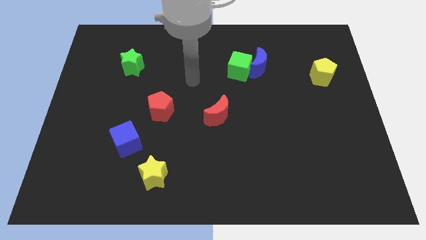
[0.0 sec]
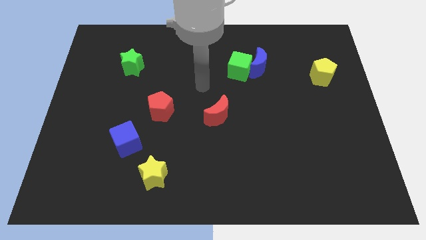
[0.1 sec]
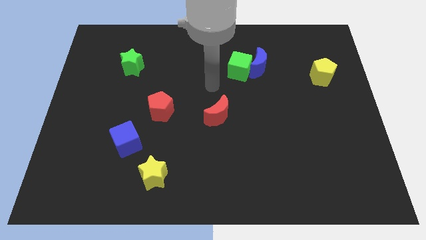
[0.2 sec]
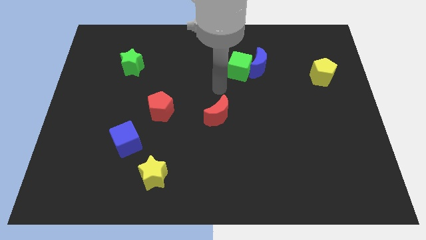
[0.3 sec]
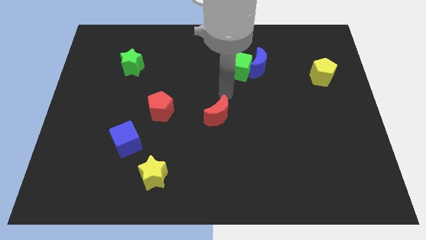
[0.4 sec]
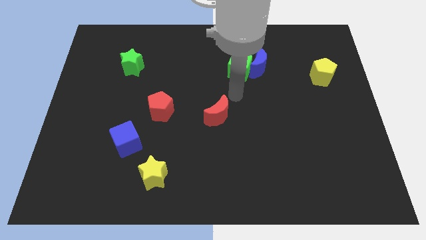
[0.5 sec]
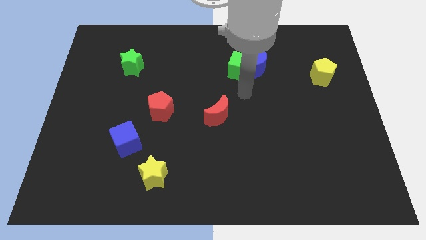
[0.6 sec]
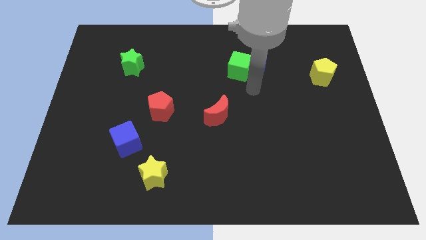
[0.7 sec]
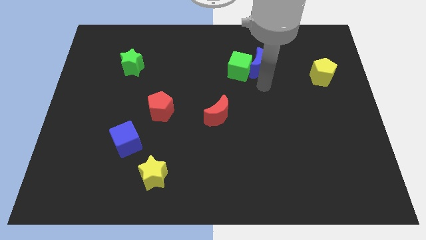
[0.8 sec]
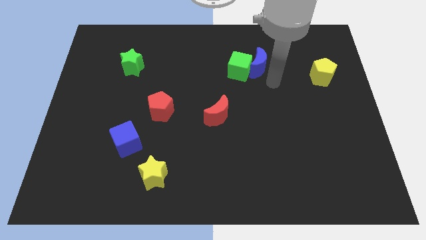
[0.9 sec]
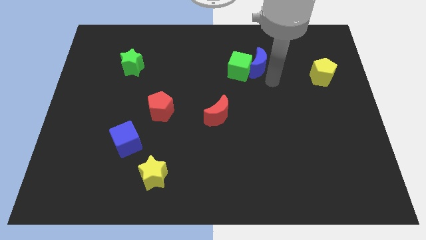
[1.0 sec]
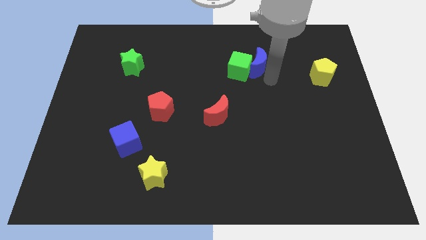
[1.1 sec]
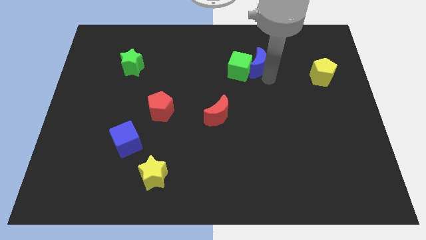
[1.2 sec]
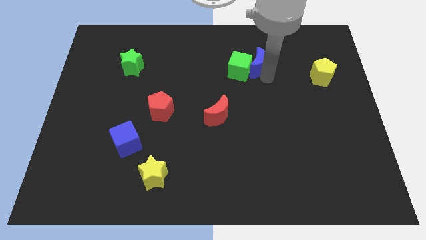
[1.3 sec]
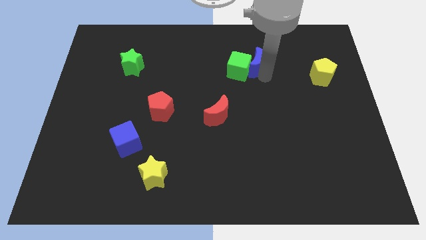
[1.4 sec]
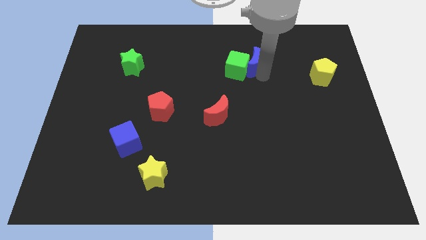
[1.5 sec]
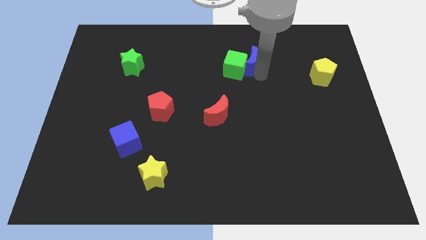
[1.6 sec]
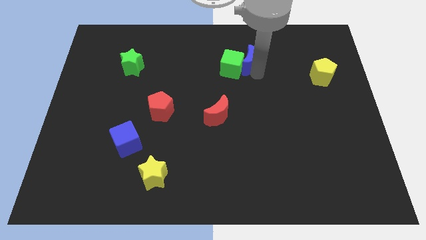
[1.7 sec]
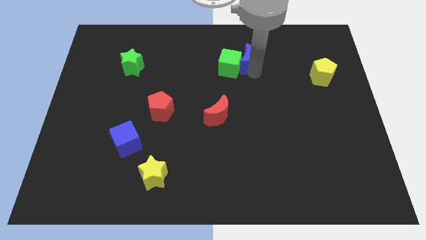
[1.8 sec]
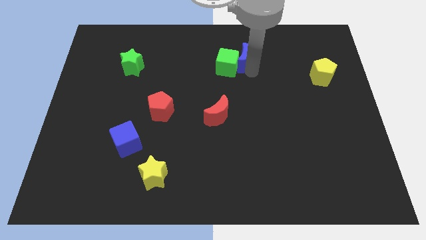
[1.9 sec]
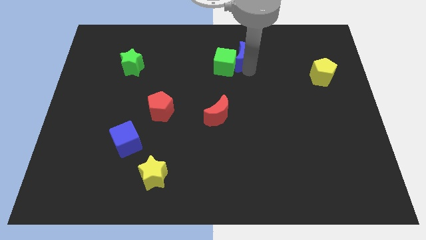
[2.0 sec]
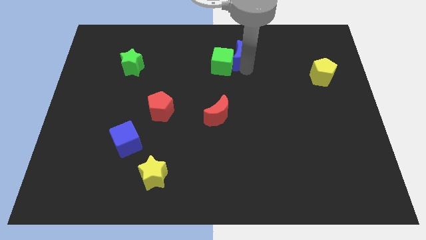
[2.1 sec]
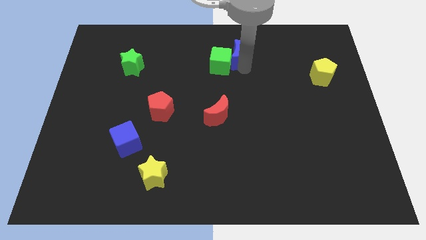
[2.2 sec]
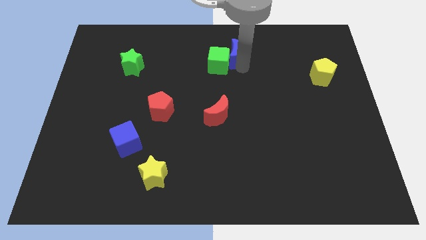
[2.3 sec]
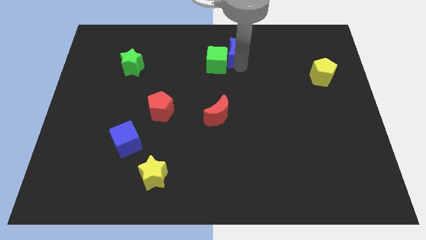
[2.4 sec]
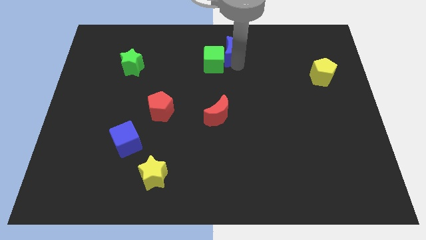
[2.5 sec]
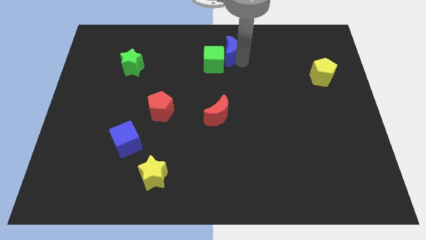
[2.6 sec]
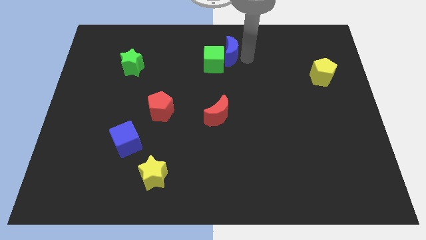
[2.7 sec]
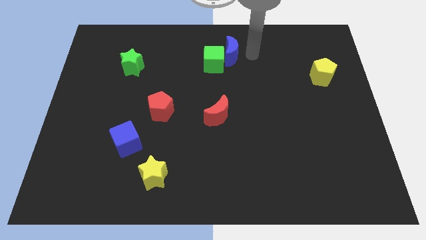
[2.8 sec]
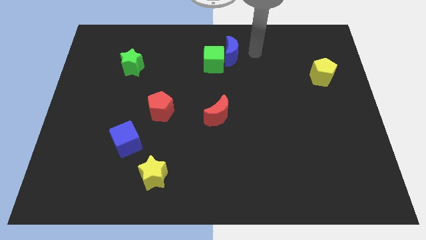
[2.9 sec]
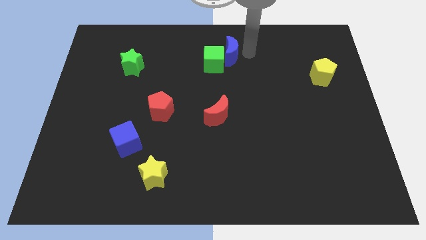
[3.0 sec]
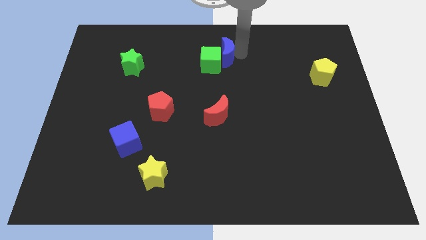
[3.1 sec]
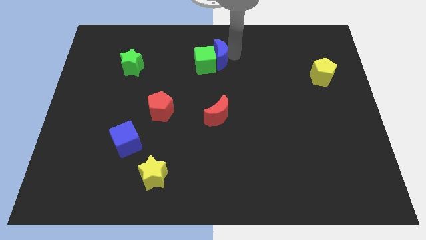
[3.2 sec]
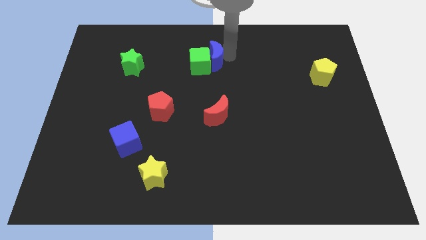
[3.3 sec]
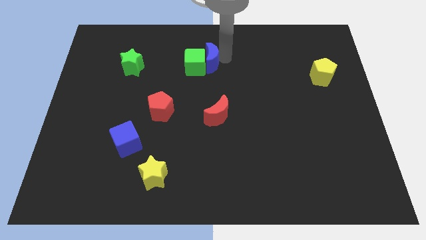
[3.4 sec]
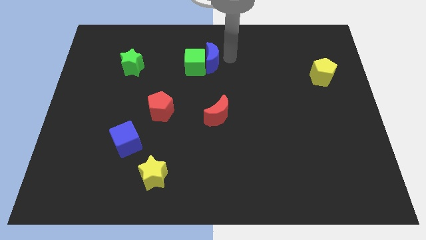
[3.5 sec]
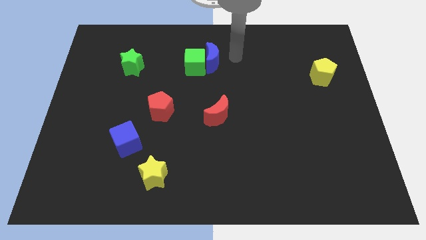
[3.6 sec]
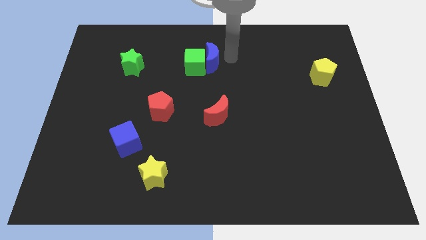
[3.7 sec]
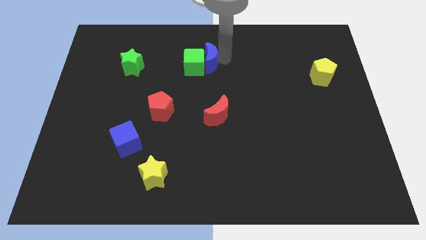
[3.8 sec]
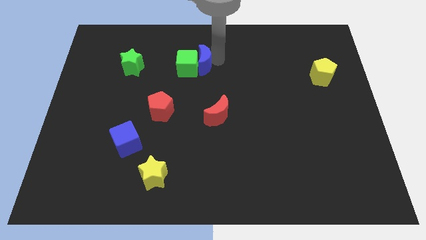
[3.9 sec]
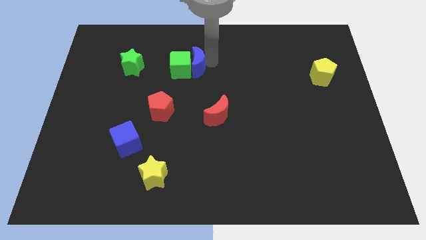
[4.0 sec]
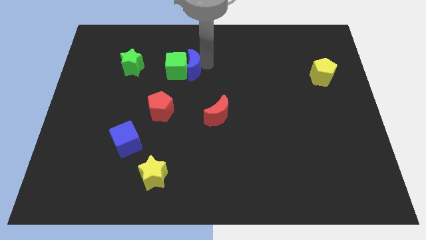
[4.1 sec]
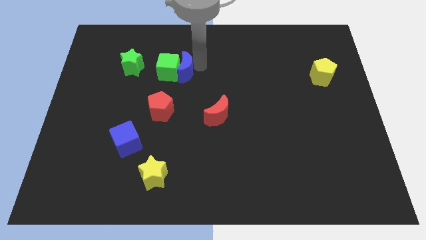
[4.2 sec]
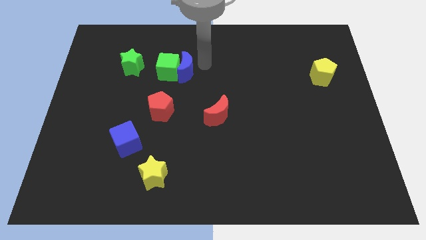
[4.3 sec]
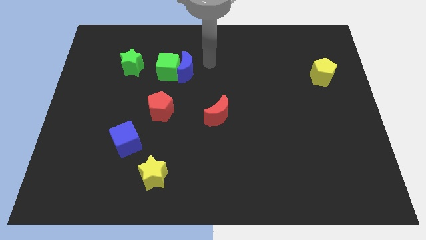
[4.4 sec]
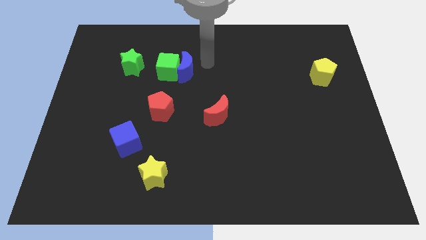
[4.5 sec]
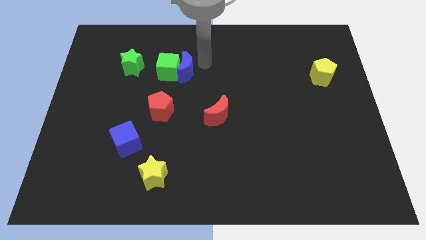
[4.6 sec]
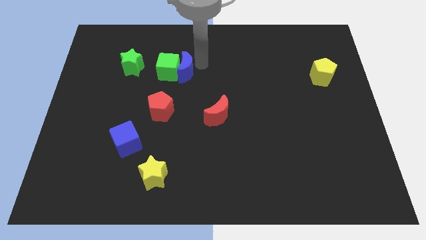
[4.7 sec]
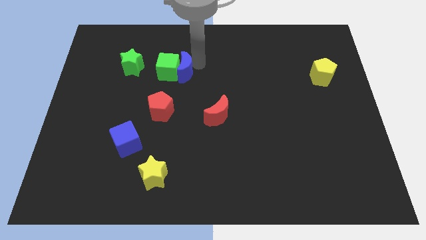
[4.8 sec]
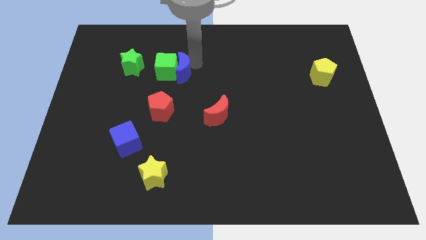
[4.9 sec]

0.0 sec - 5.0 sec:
push the blue moon to the top side of the red pentagon

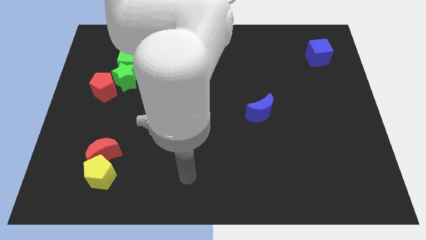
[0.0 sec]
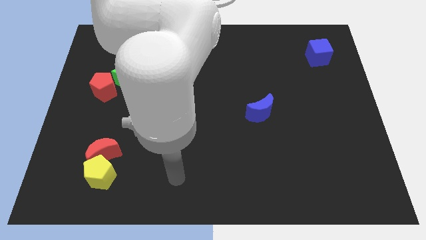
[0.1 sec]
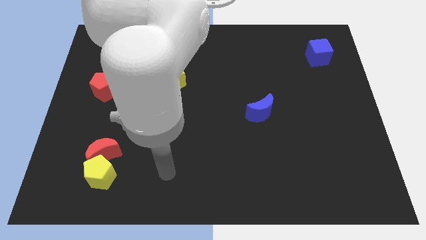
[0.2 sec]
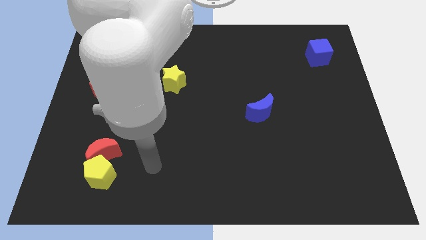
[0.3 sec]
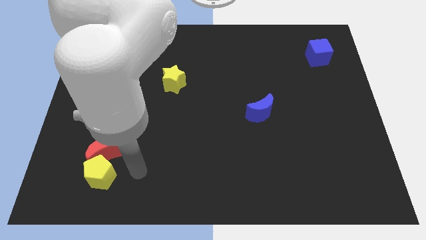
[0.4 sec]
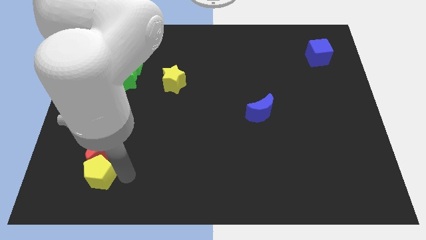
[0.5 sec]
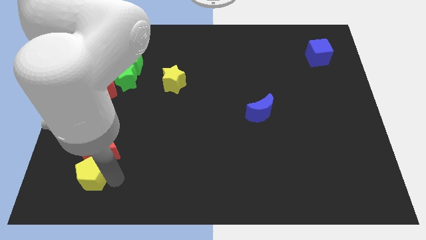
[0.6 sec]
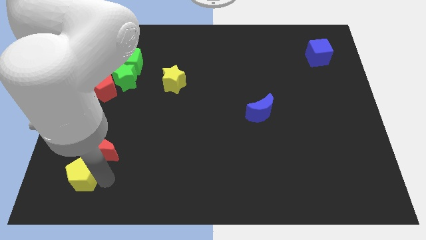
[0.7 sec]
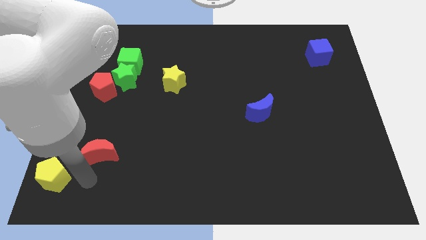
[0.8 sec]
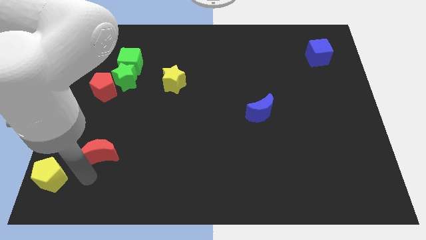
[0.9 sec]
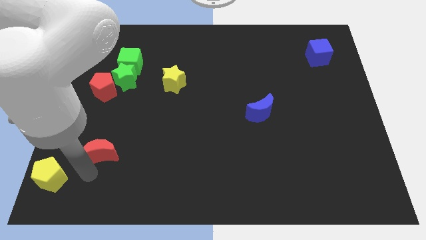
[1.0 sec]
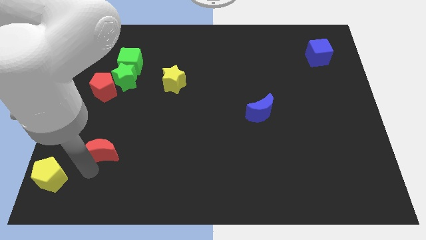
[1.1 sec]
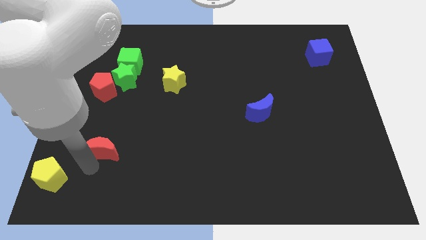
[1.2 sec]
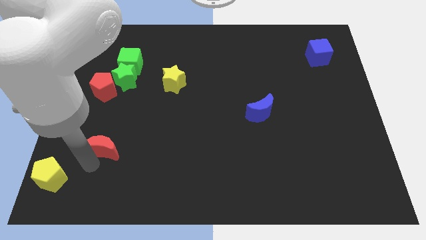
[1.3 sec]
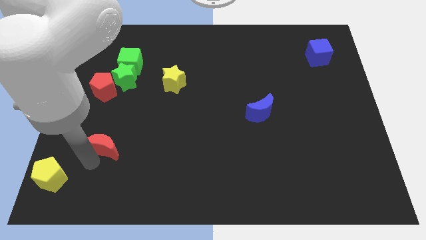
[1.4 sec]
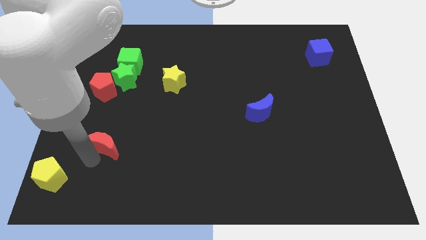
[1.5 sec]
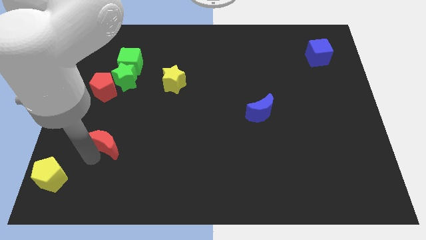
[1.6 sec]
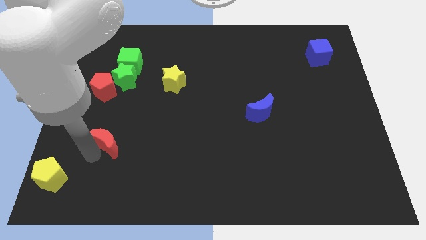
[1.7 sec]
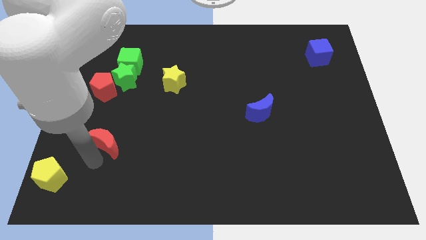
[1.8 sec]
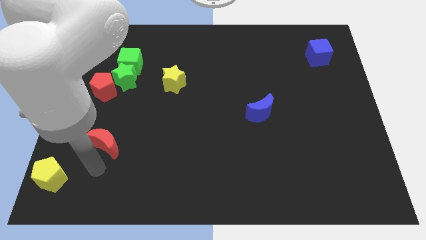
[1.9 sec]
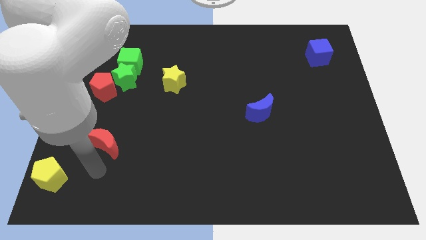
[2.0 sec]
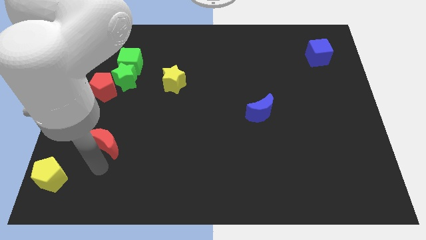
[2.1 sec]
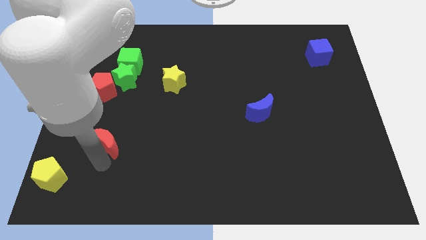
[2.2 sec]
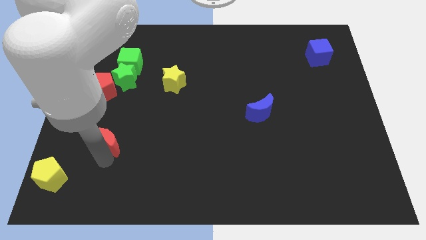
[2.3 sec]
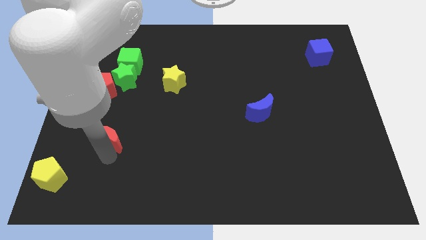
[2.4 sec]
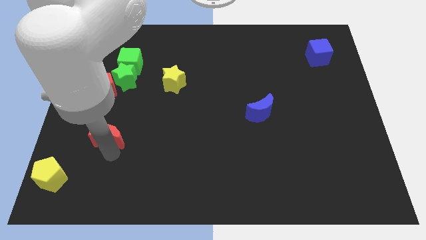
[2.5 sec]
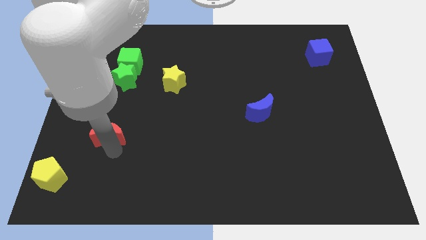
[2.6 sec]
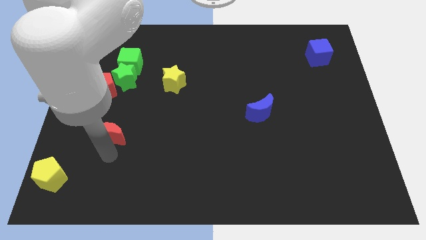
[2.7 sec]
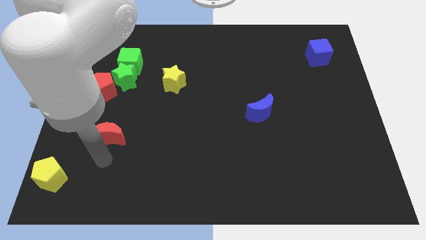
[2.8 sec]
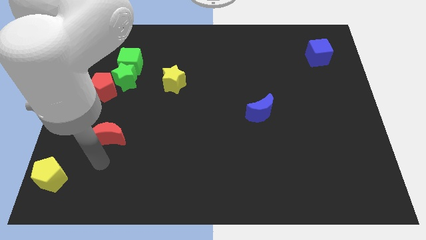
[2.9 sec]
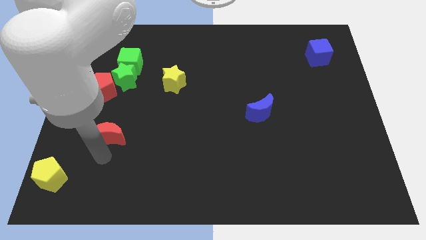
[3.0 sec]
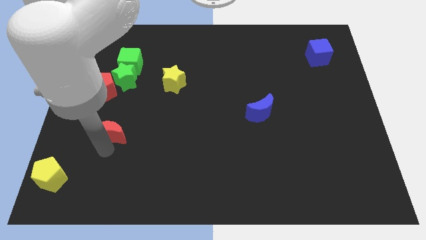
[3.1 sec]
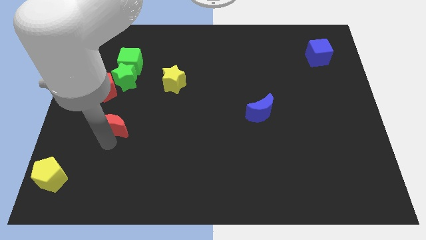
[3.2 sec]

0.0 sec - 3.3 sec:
move the red moon to the bottom of the green star
